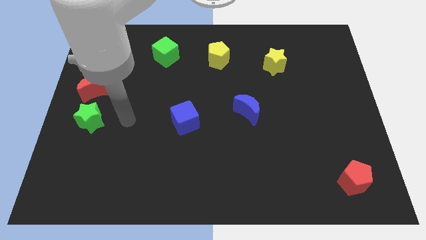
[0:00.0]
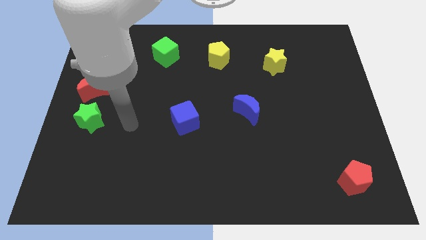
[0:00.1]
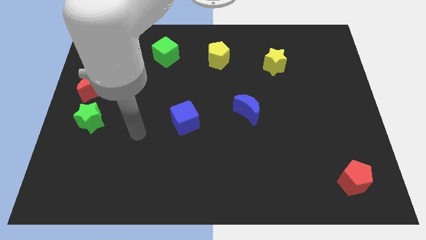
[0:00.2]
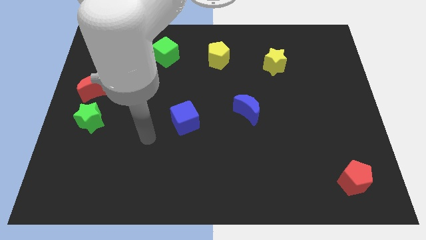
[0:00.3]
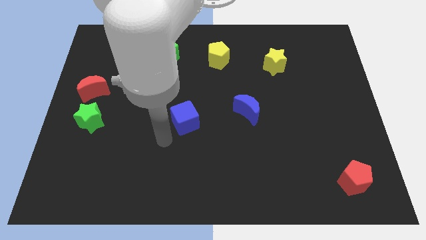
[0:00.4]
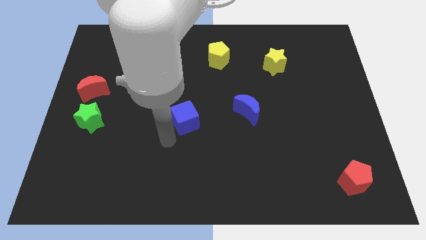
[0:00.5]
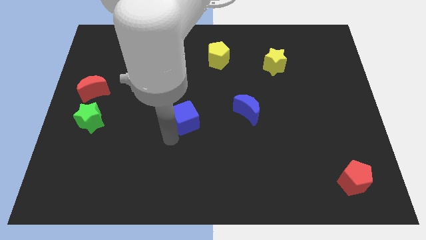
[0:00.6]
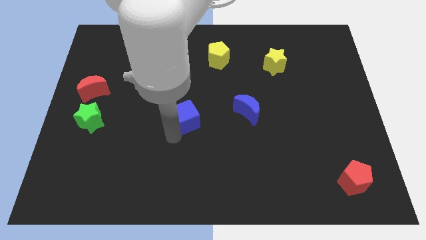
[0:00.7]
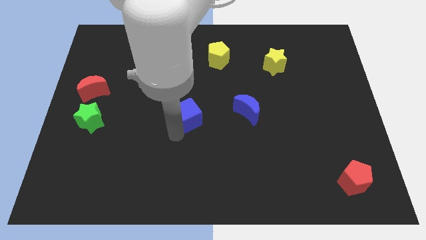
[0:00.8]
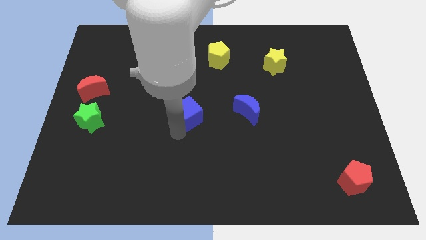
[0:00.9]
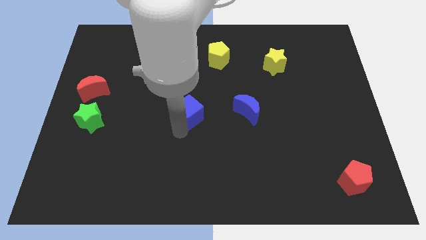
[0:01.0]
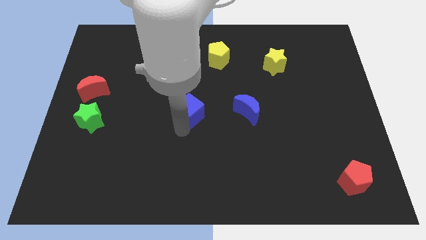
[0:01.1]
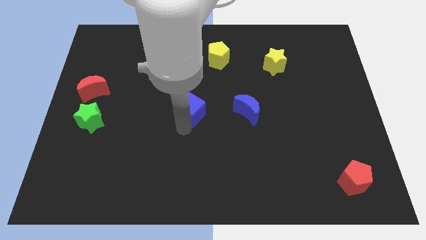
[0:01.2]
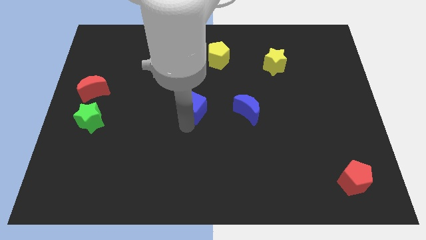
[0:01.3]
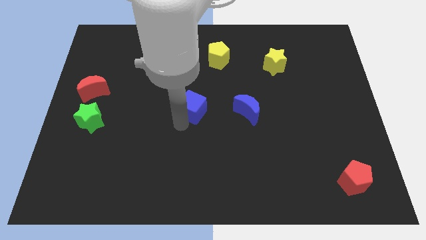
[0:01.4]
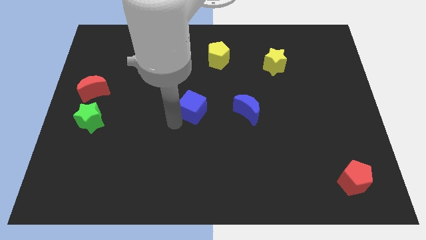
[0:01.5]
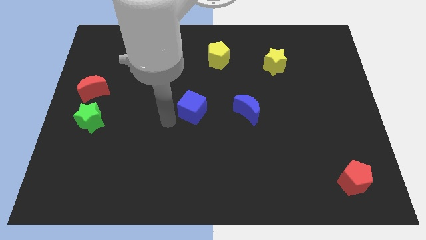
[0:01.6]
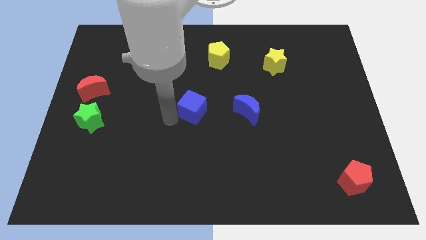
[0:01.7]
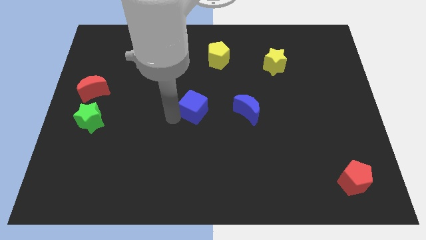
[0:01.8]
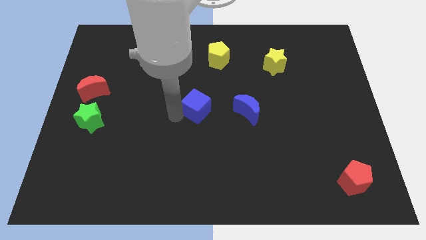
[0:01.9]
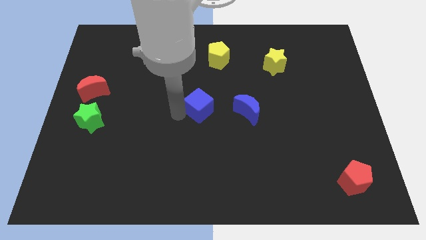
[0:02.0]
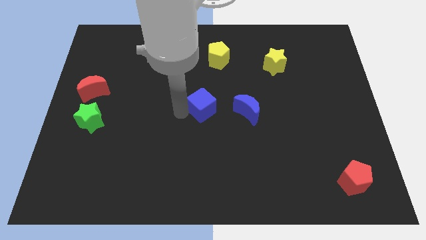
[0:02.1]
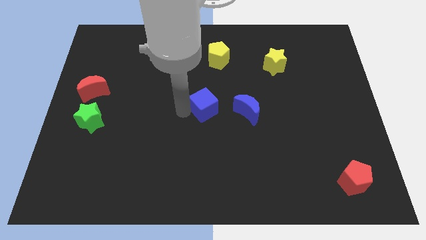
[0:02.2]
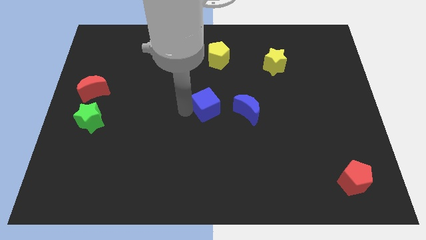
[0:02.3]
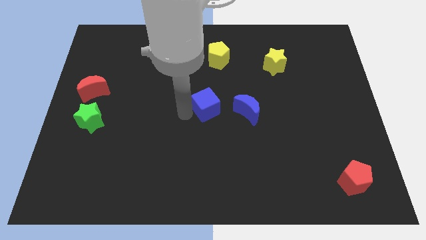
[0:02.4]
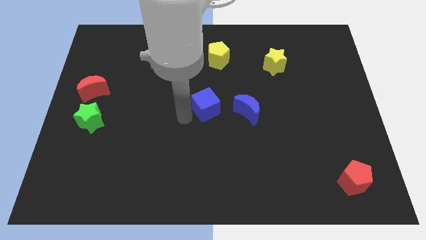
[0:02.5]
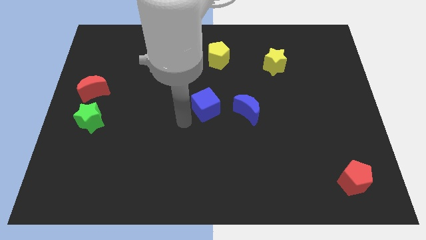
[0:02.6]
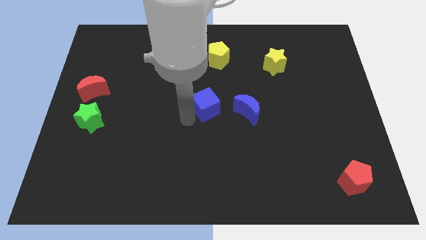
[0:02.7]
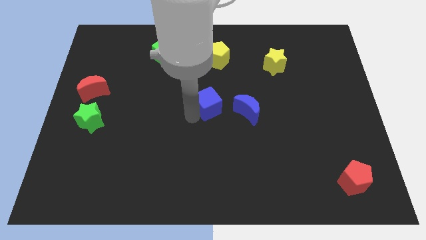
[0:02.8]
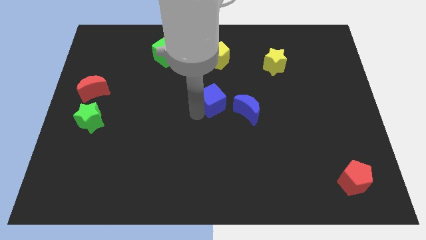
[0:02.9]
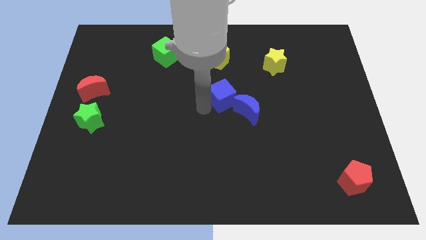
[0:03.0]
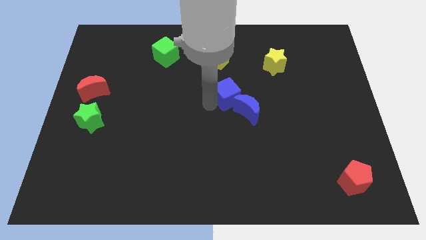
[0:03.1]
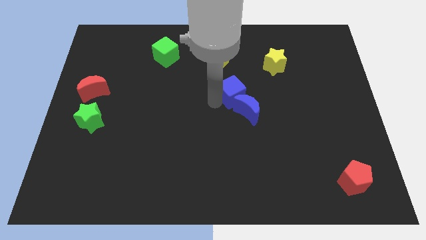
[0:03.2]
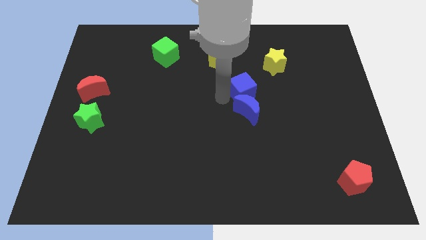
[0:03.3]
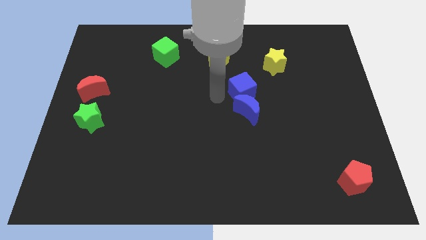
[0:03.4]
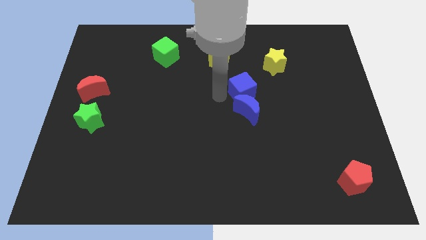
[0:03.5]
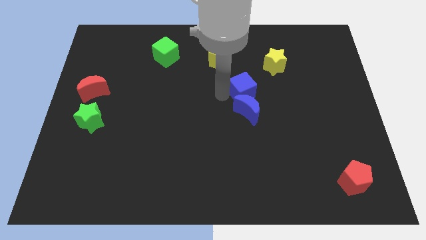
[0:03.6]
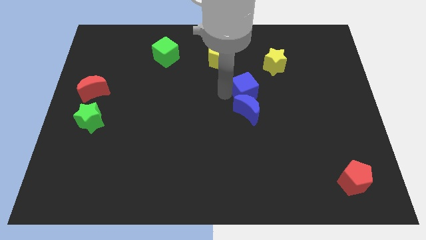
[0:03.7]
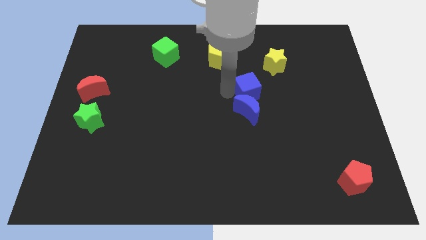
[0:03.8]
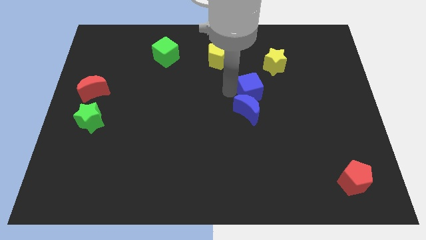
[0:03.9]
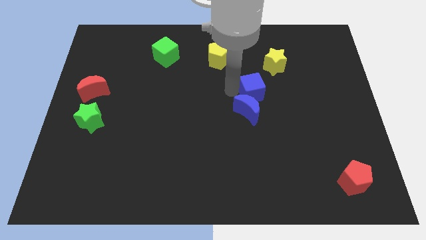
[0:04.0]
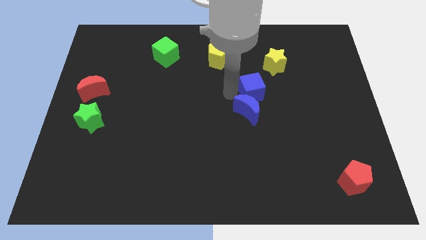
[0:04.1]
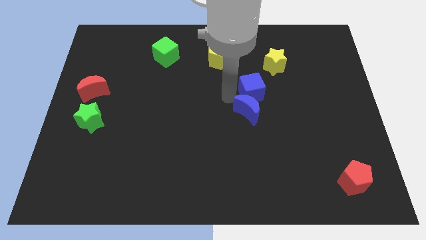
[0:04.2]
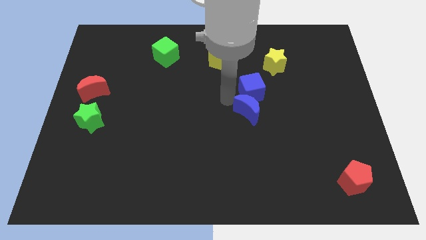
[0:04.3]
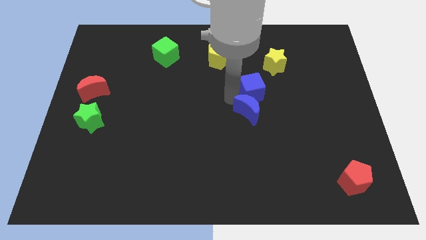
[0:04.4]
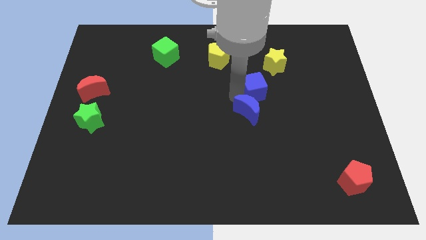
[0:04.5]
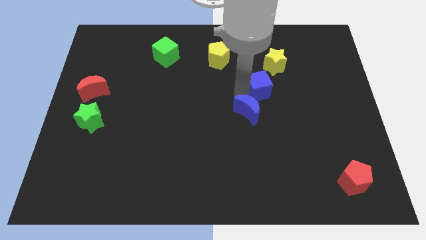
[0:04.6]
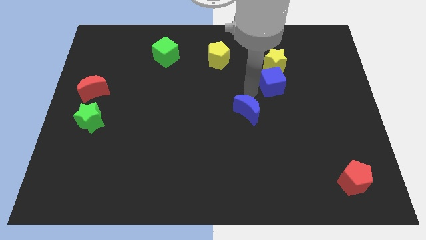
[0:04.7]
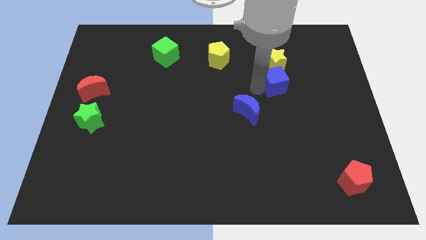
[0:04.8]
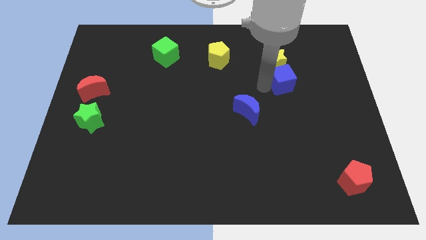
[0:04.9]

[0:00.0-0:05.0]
slide the blue cube diagonally down and to the right of the yellow star

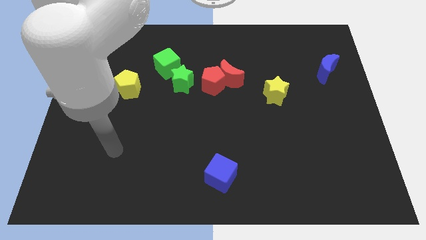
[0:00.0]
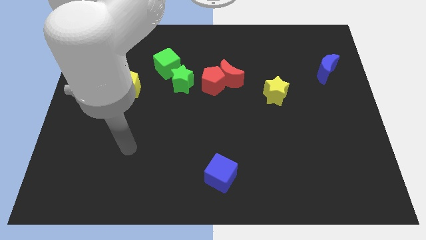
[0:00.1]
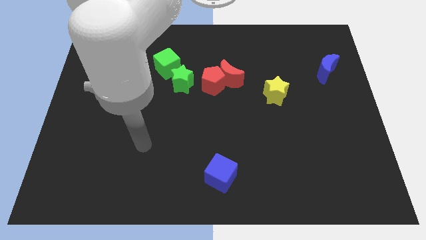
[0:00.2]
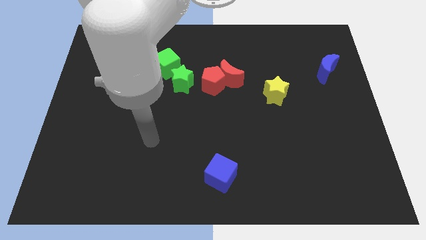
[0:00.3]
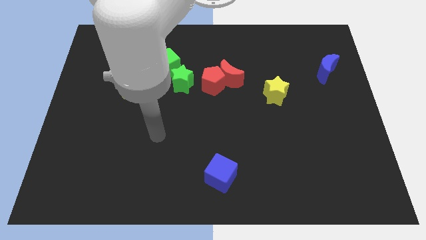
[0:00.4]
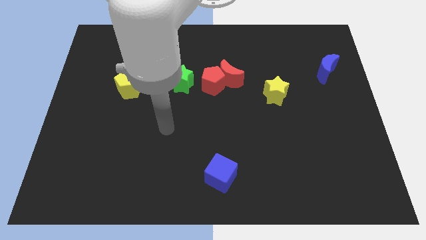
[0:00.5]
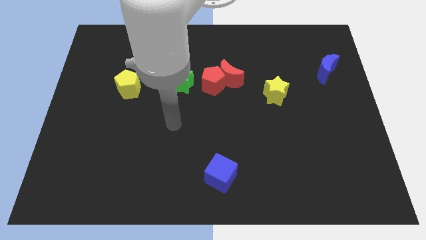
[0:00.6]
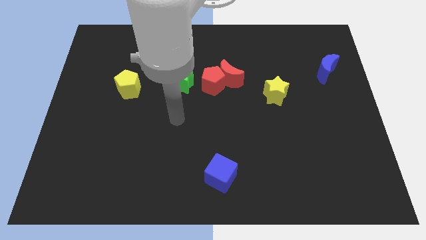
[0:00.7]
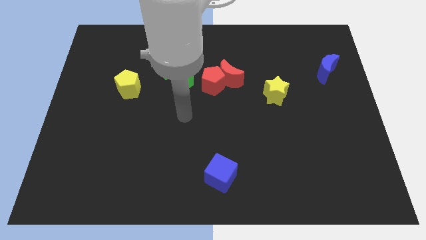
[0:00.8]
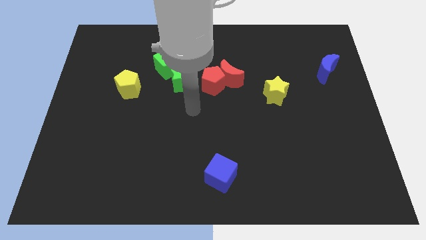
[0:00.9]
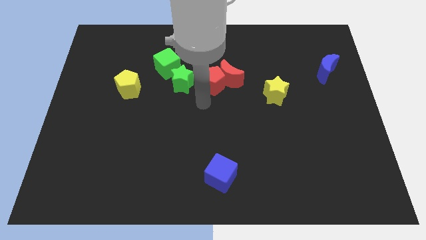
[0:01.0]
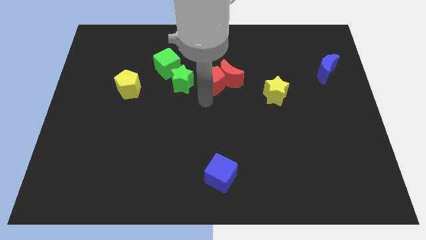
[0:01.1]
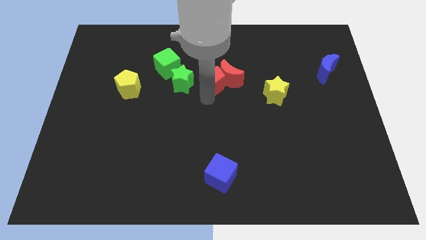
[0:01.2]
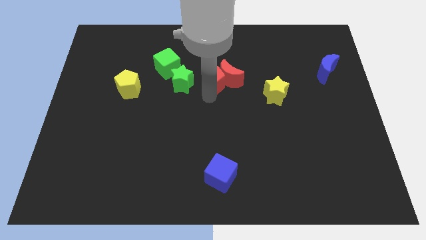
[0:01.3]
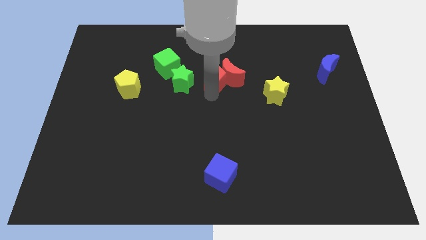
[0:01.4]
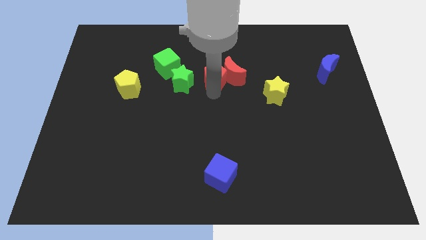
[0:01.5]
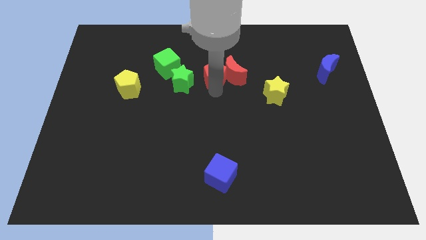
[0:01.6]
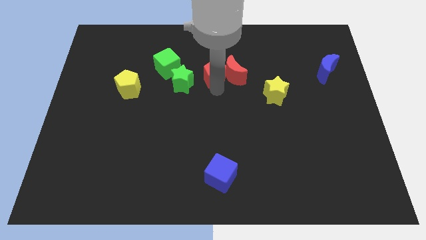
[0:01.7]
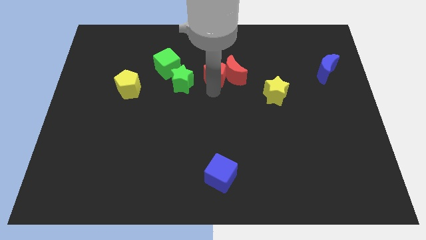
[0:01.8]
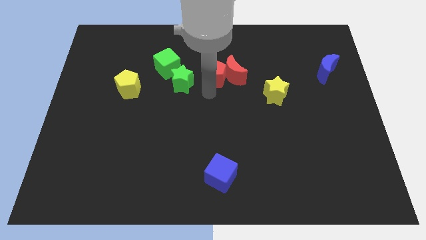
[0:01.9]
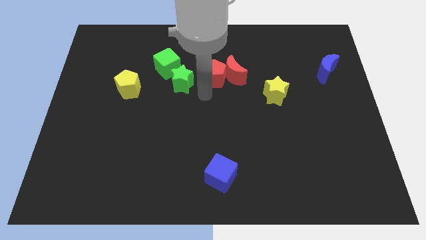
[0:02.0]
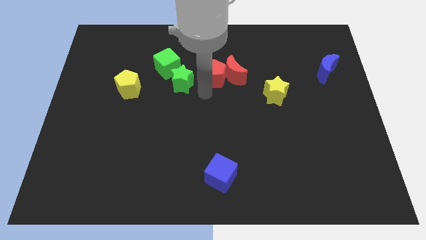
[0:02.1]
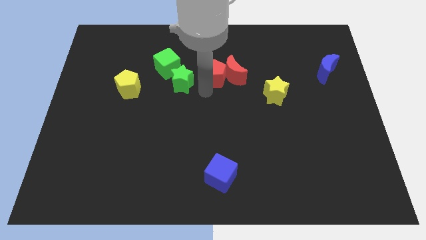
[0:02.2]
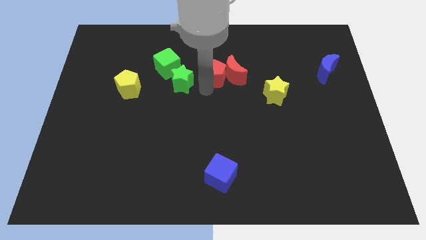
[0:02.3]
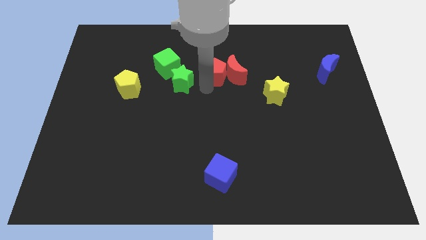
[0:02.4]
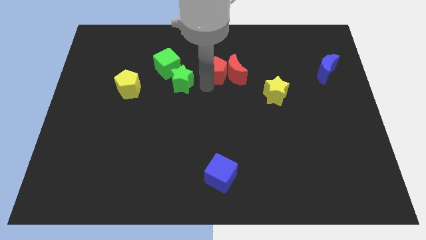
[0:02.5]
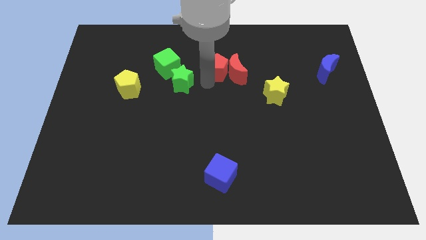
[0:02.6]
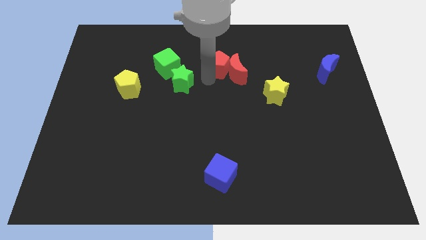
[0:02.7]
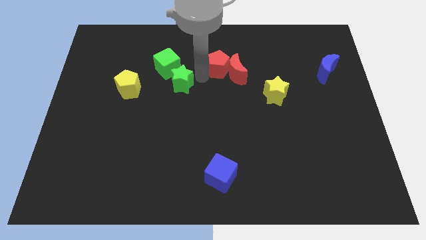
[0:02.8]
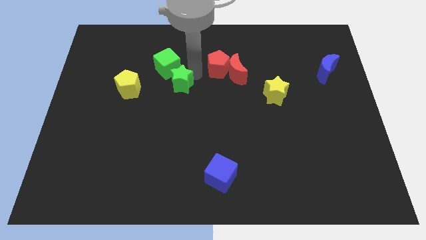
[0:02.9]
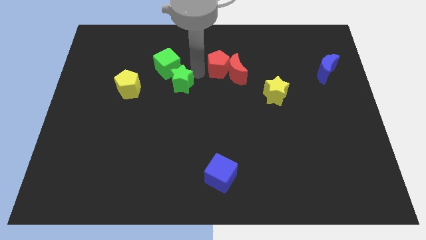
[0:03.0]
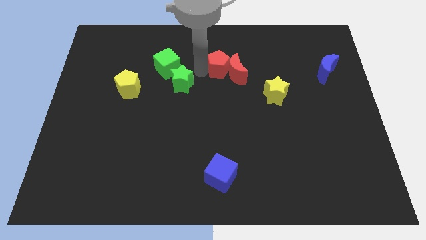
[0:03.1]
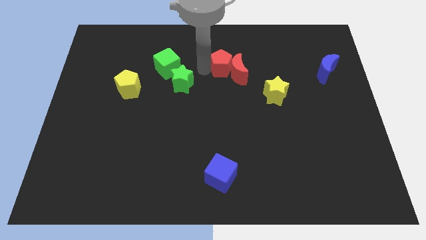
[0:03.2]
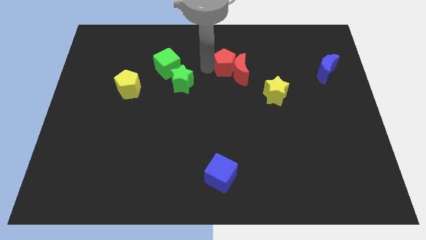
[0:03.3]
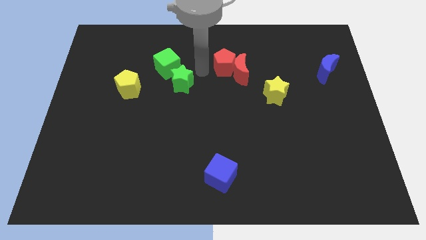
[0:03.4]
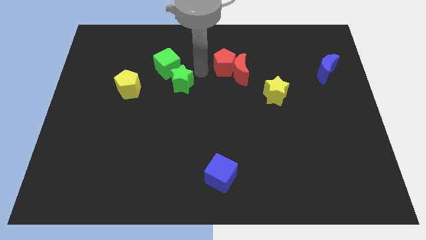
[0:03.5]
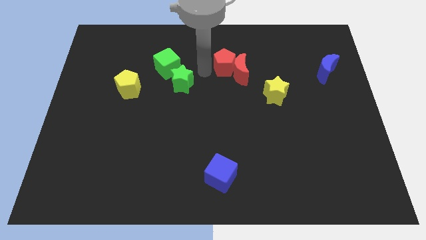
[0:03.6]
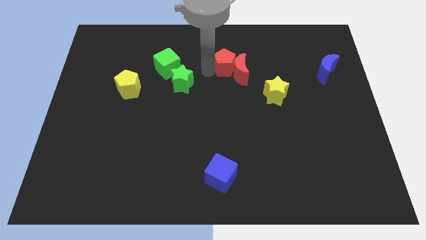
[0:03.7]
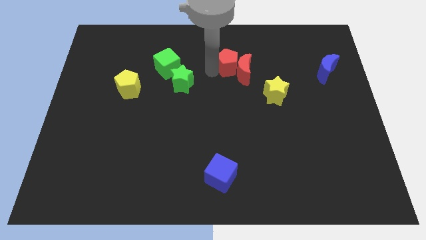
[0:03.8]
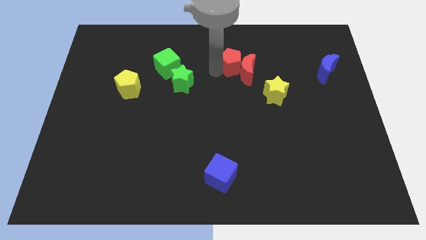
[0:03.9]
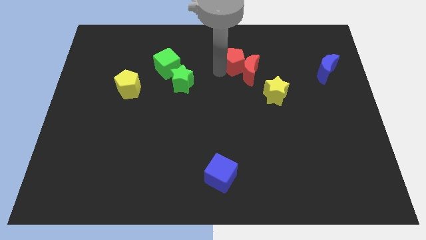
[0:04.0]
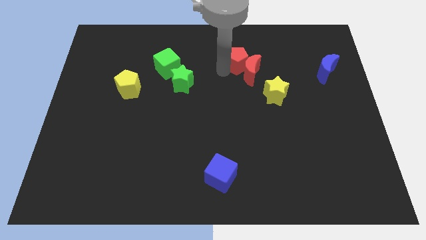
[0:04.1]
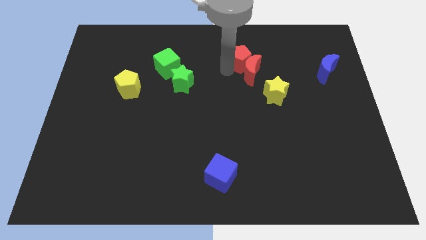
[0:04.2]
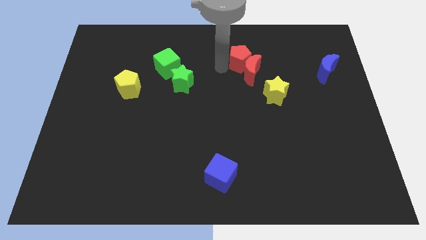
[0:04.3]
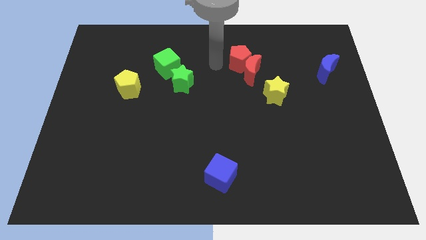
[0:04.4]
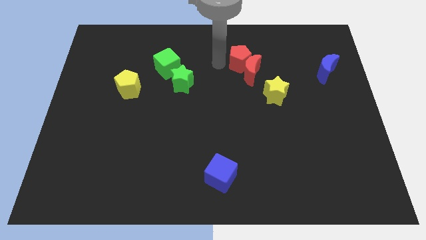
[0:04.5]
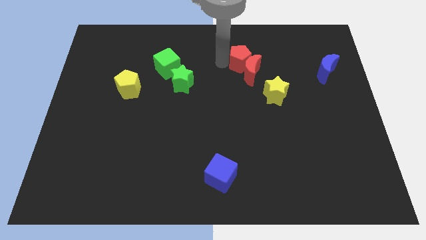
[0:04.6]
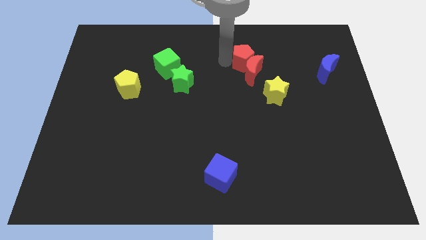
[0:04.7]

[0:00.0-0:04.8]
push the red pentagon to the top right of the red moon
